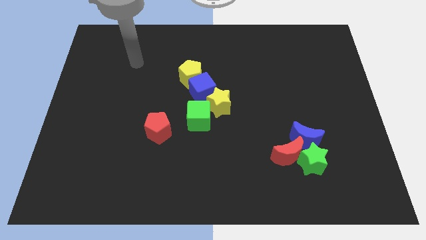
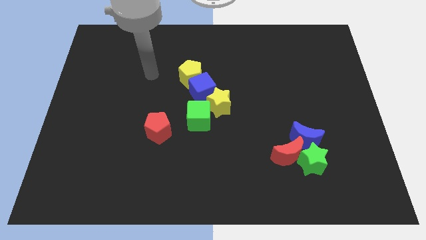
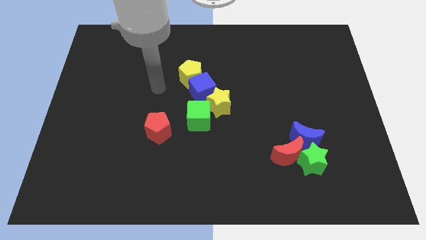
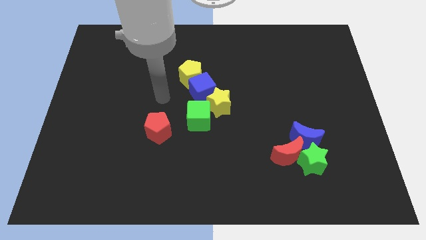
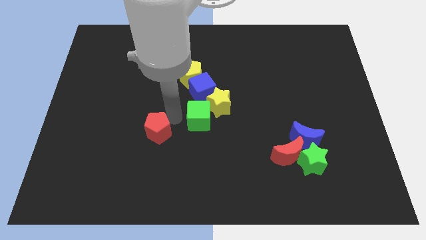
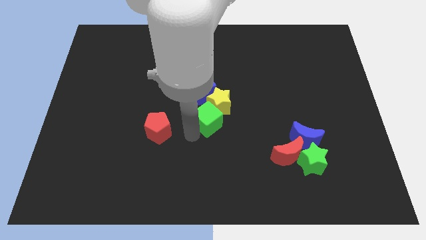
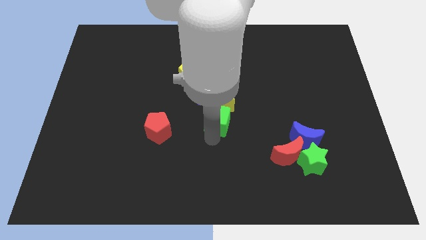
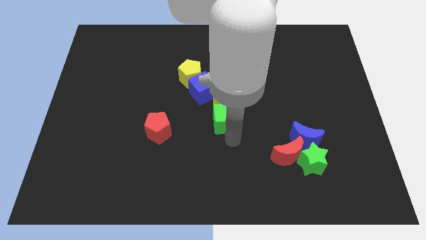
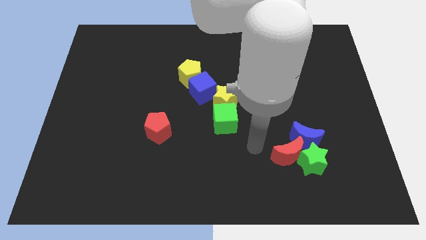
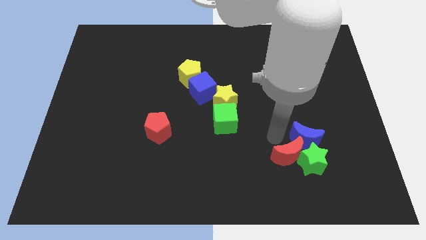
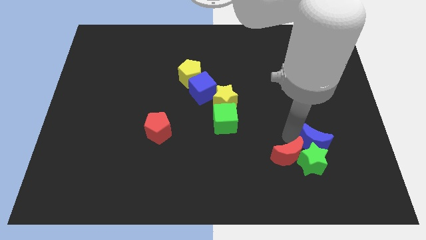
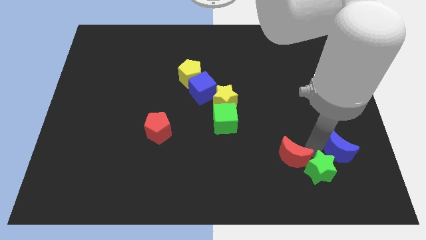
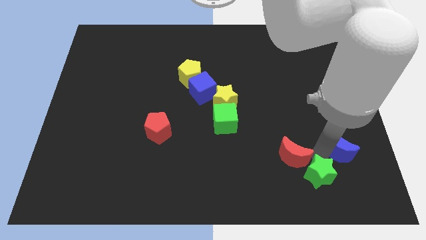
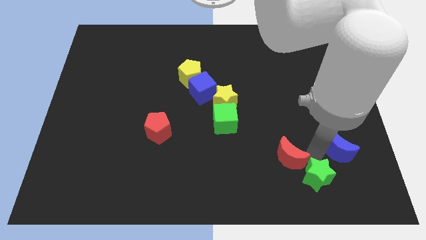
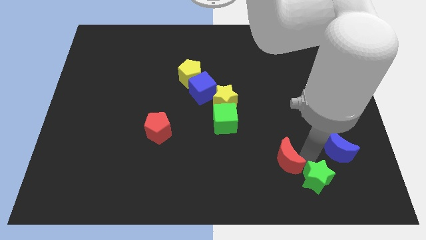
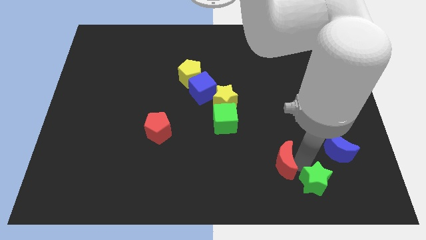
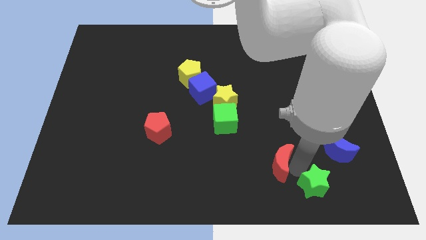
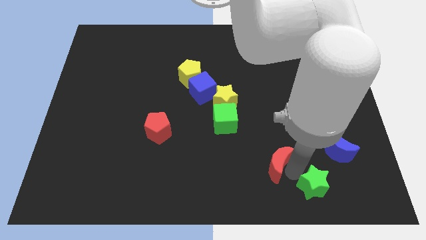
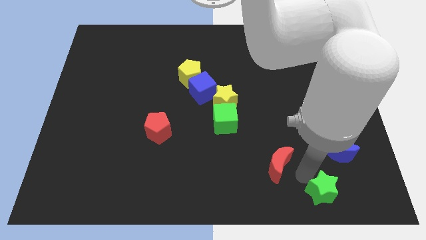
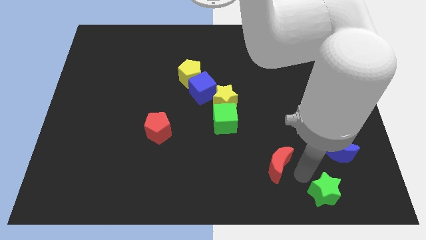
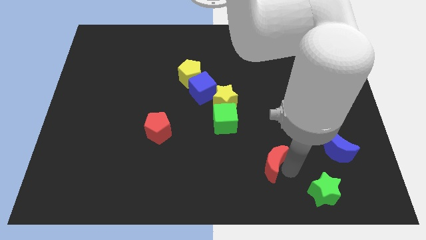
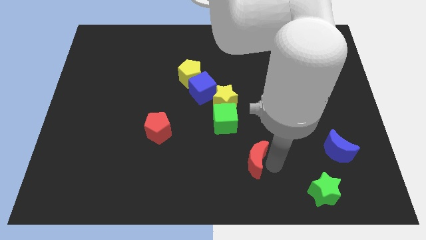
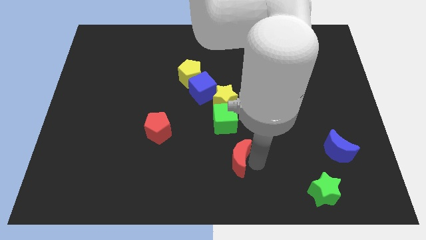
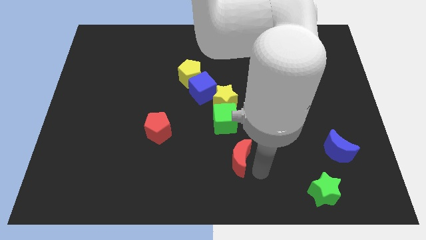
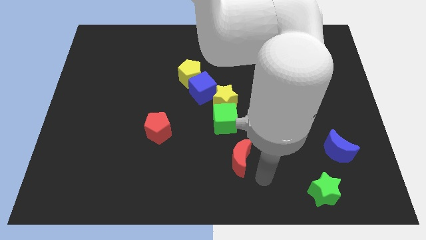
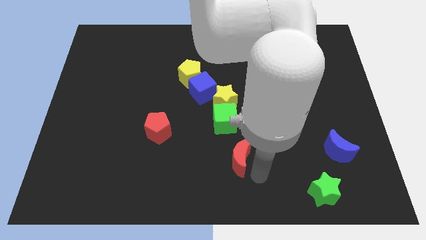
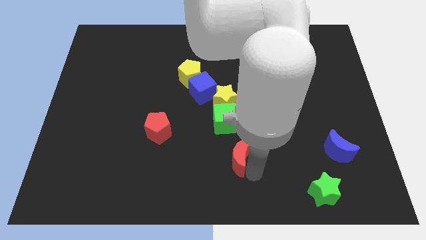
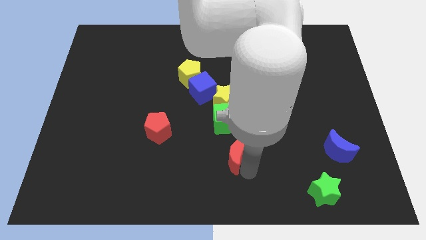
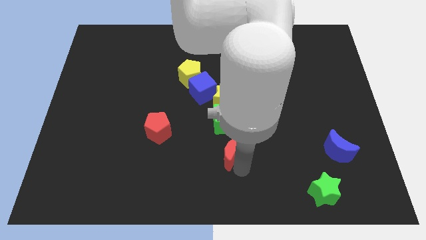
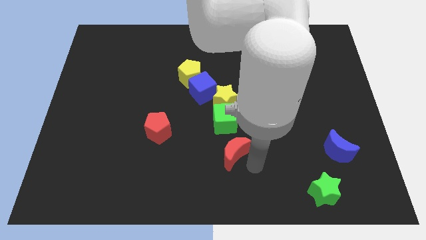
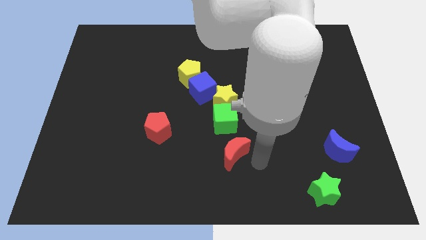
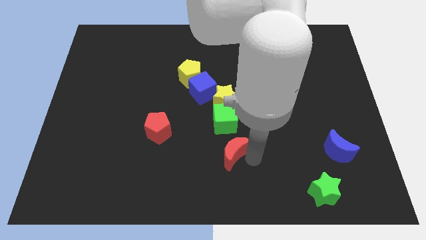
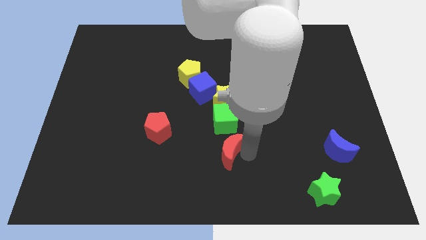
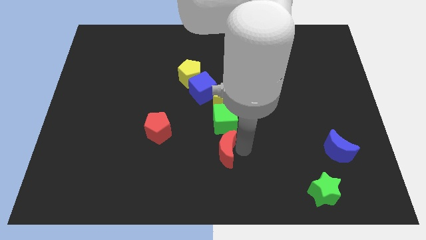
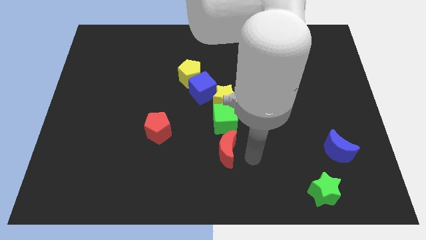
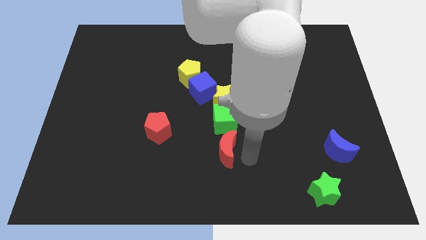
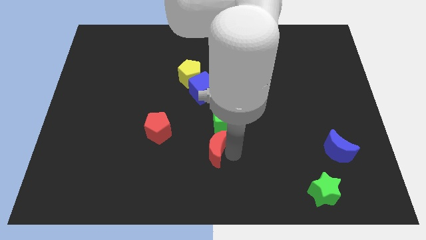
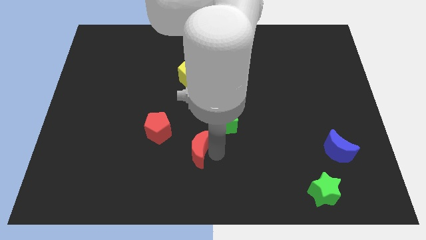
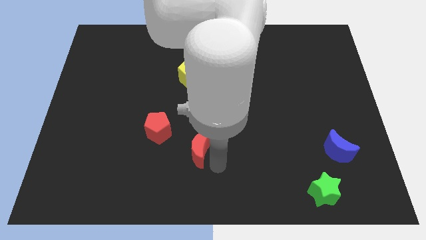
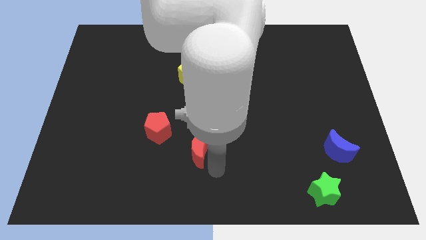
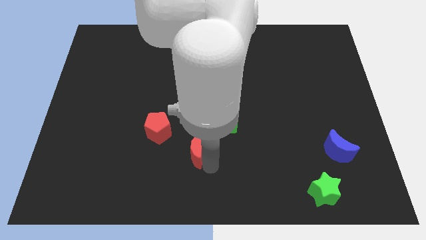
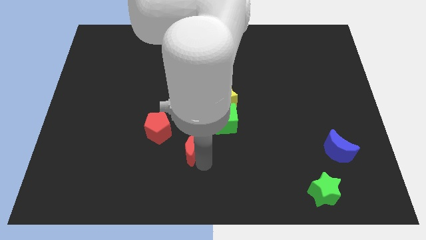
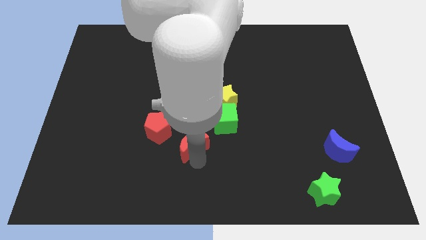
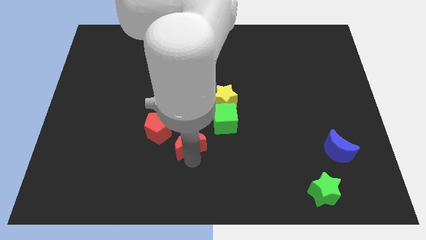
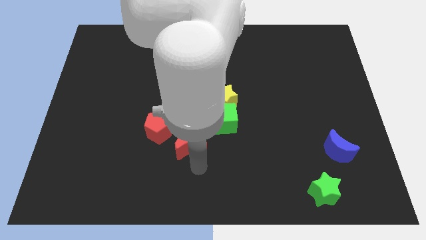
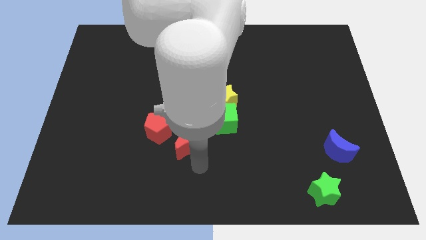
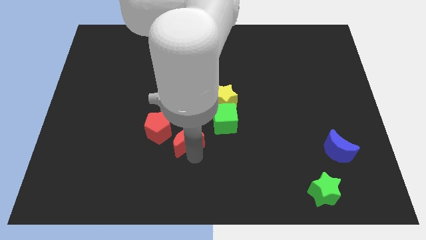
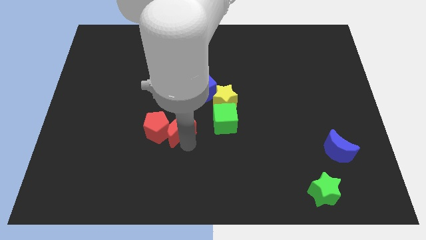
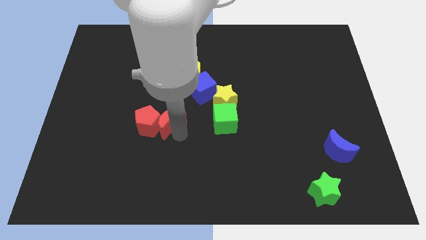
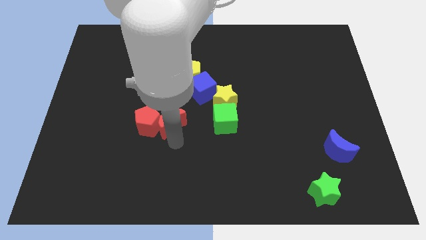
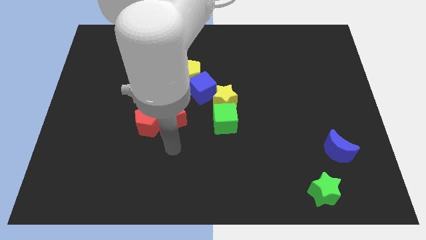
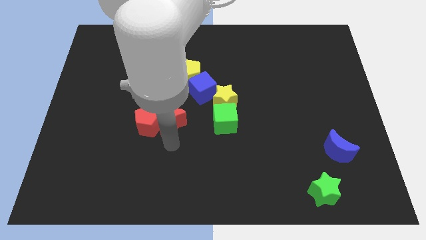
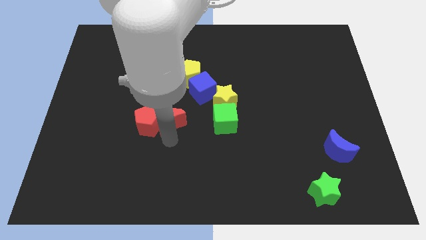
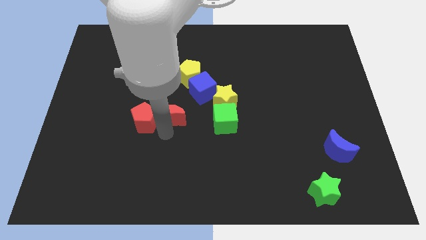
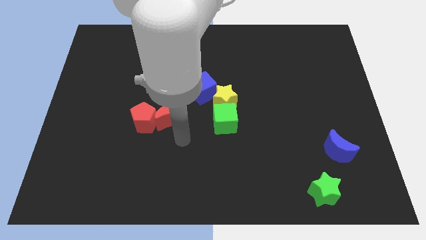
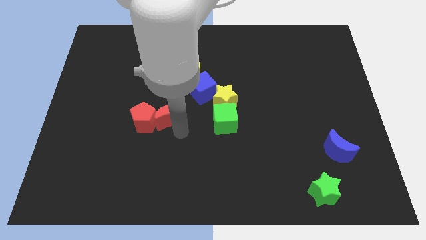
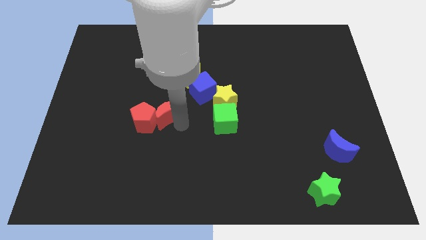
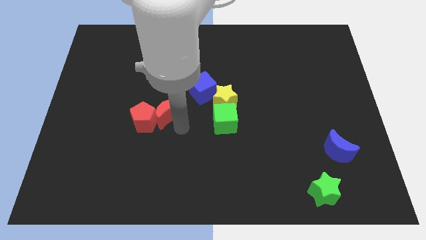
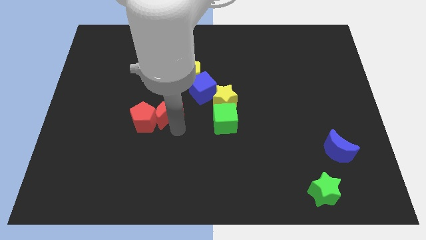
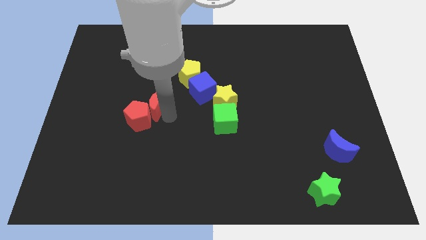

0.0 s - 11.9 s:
put the red moon to the top side of the red pentagon

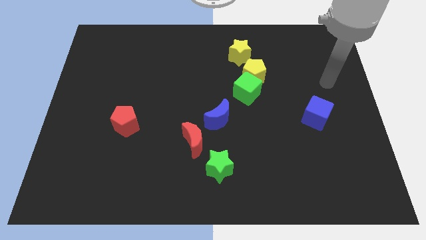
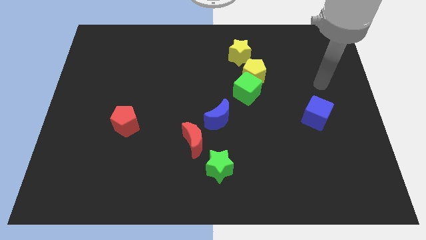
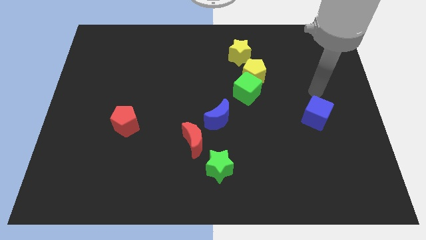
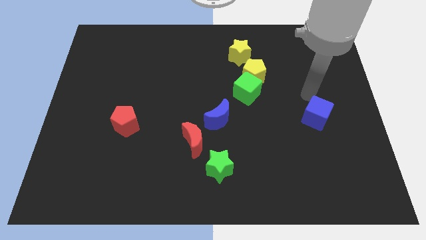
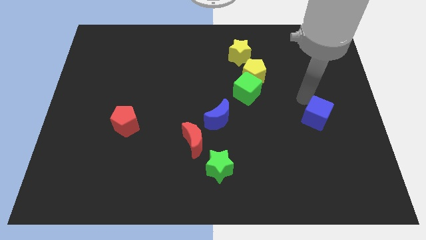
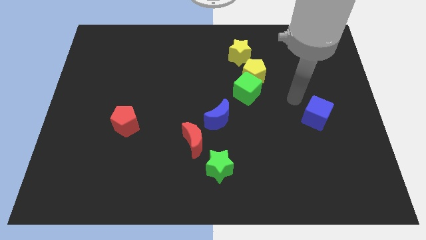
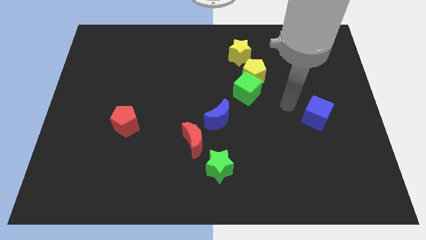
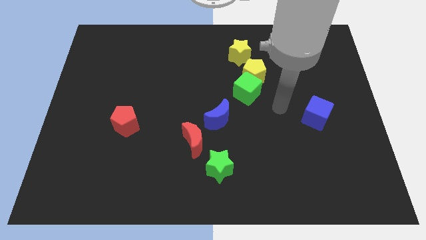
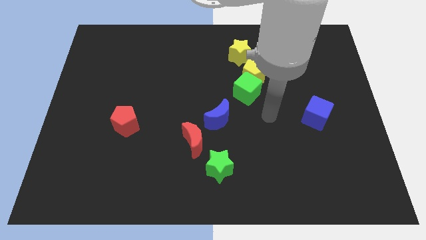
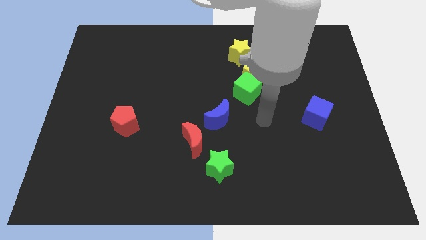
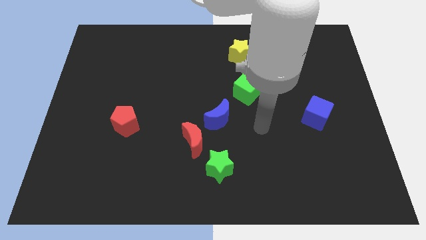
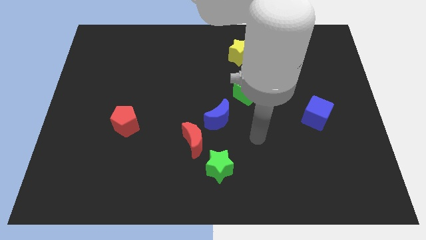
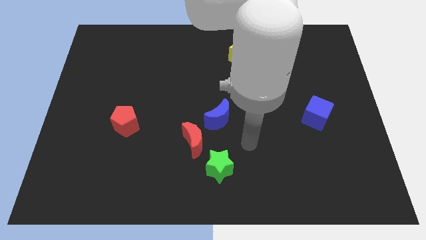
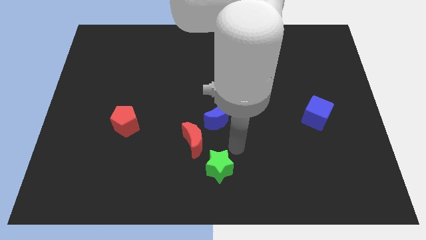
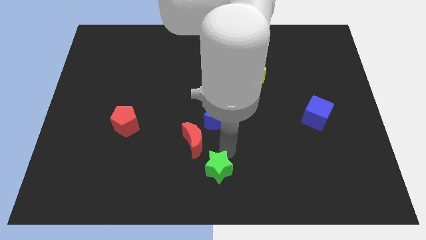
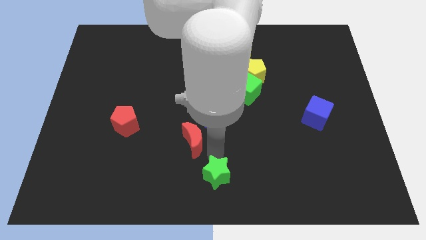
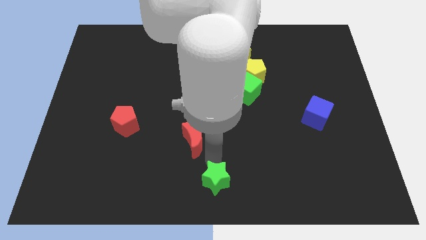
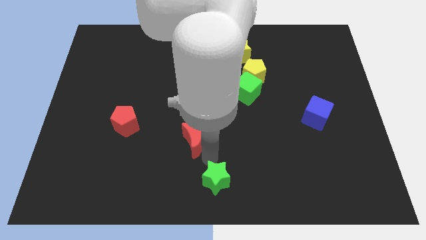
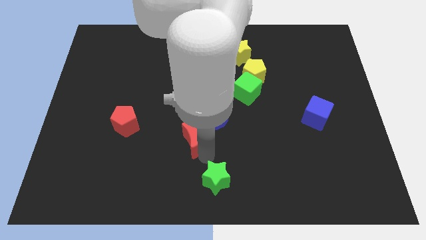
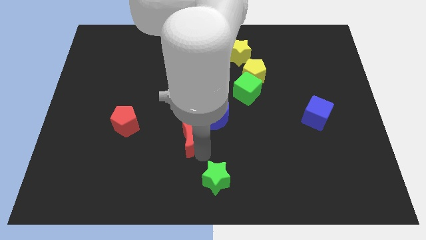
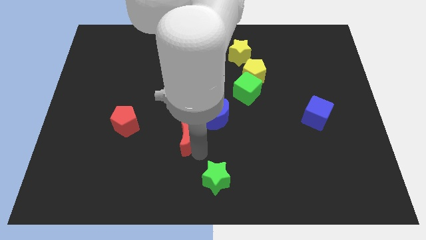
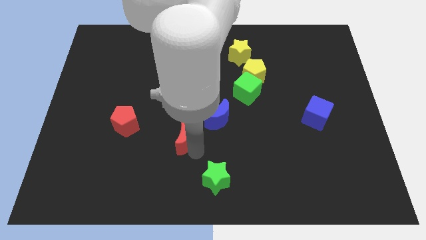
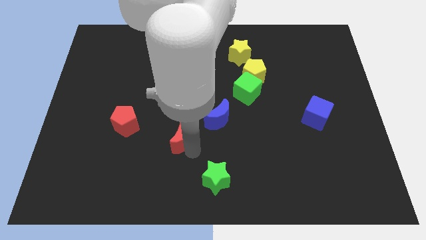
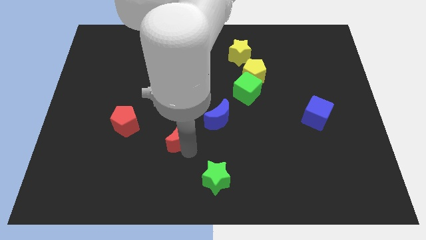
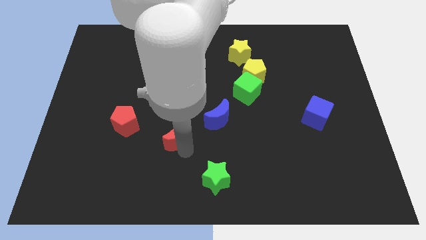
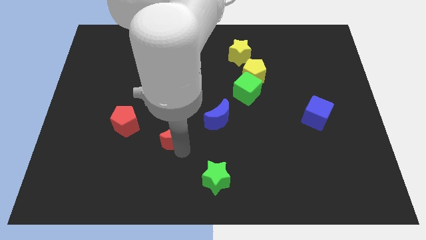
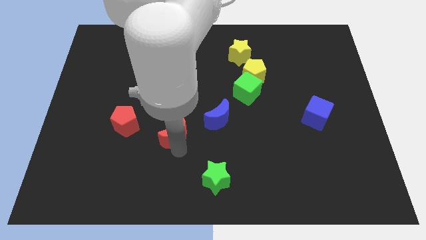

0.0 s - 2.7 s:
push the red moon just left of the blue moon
